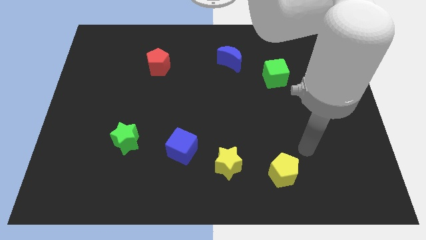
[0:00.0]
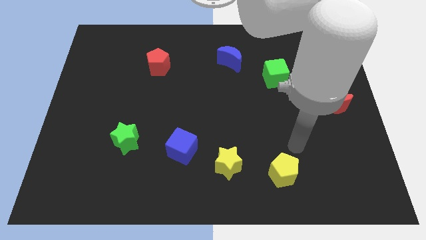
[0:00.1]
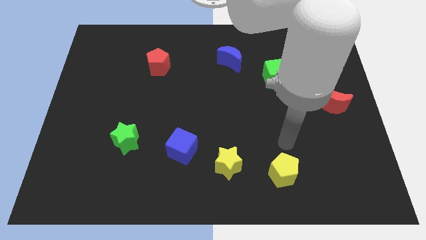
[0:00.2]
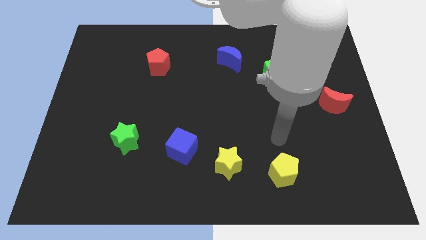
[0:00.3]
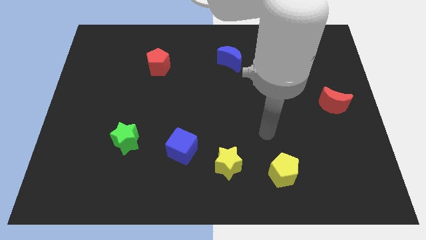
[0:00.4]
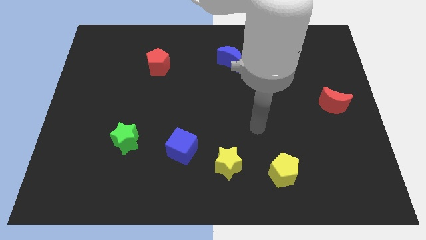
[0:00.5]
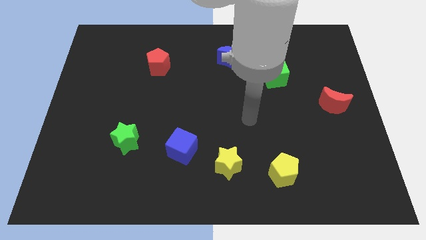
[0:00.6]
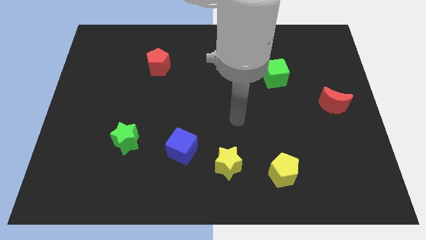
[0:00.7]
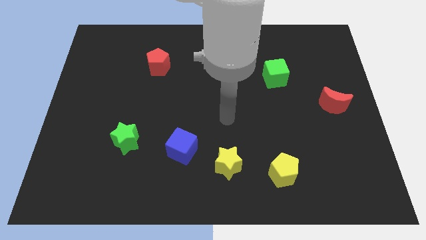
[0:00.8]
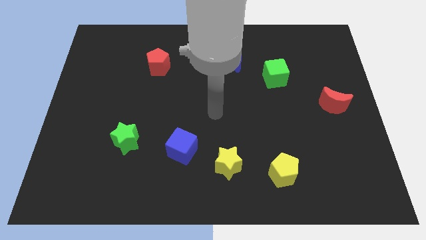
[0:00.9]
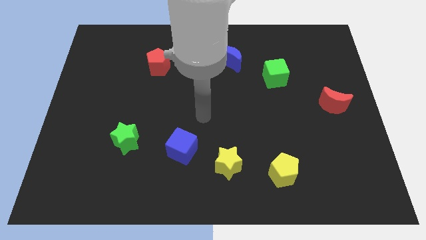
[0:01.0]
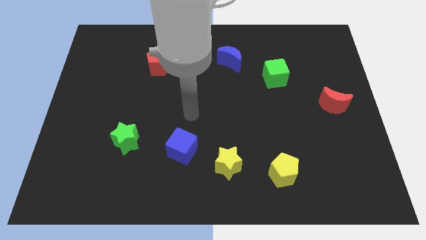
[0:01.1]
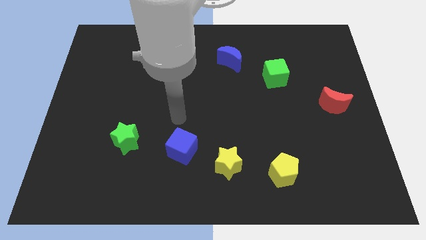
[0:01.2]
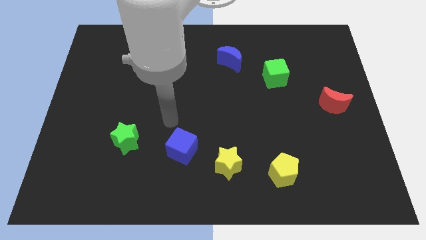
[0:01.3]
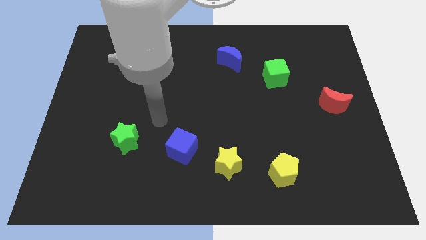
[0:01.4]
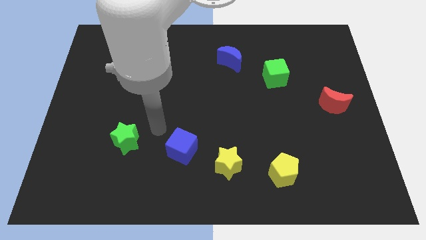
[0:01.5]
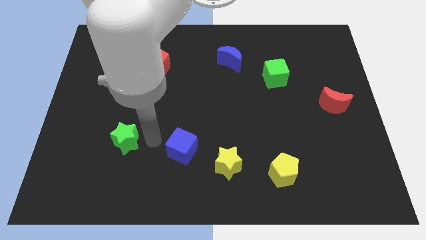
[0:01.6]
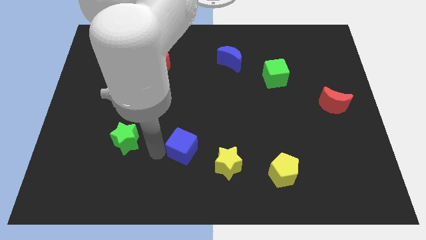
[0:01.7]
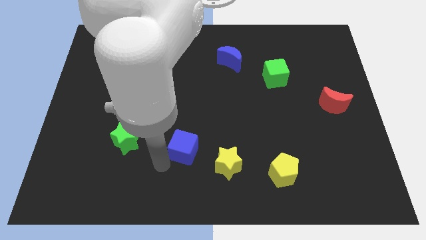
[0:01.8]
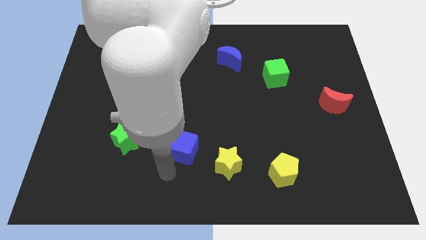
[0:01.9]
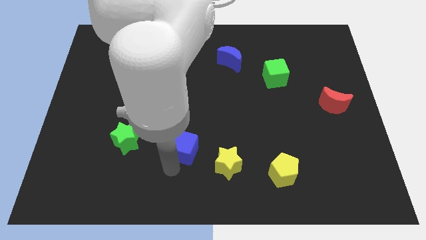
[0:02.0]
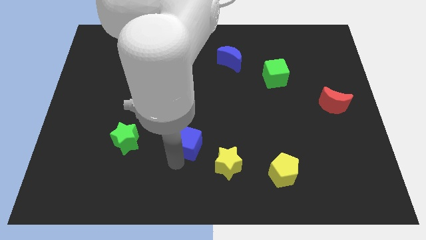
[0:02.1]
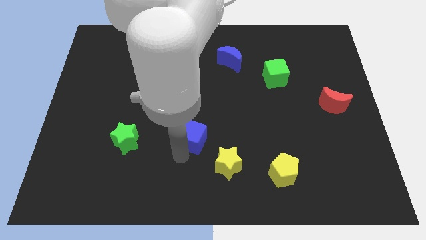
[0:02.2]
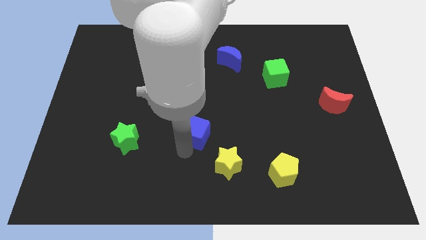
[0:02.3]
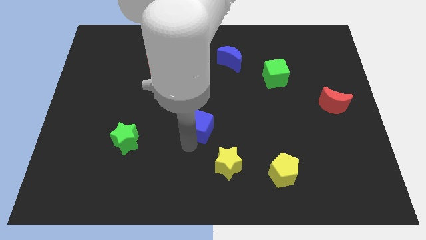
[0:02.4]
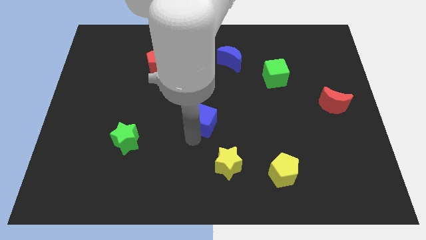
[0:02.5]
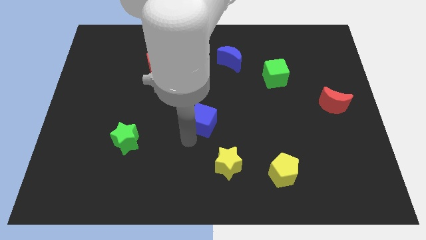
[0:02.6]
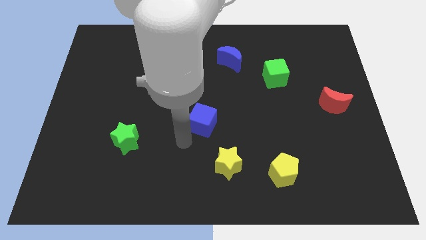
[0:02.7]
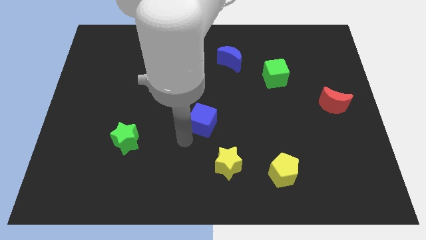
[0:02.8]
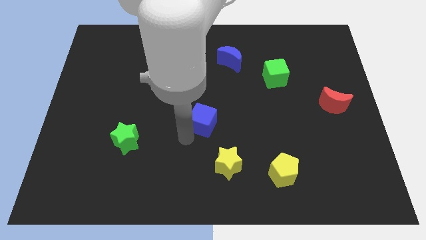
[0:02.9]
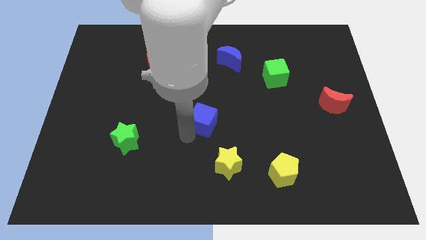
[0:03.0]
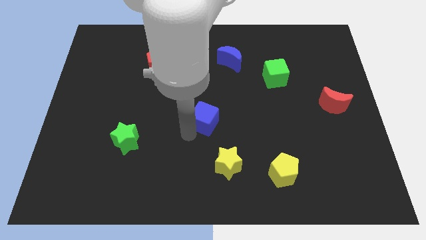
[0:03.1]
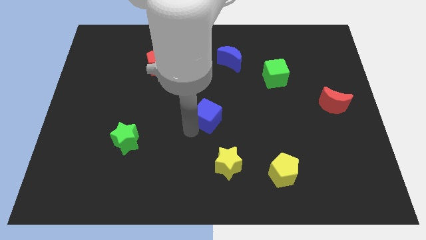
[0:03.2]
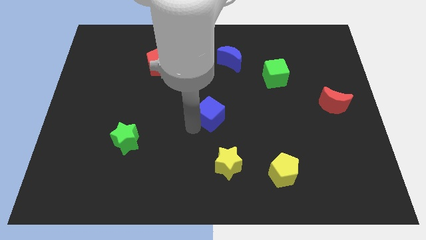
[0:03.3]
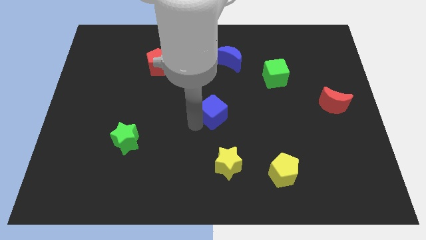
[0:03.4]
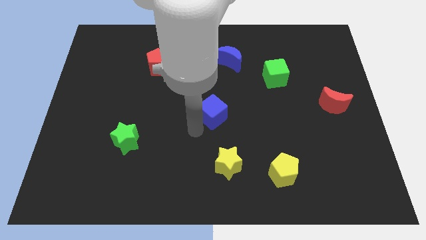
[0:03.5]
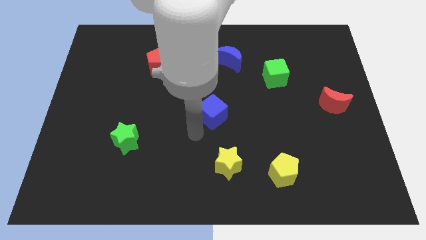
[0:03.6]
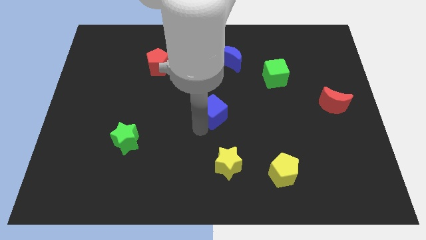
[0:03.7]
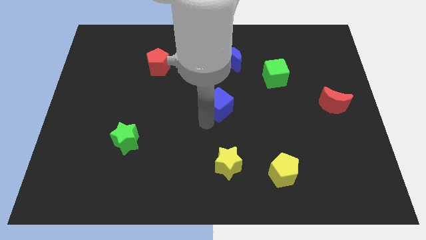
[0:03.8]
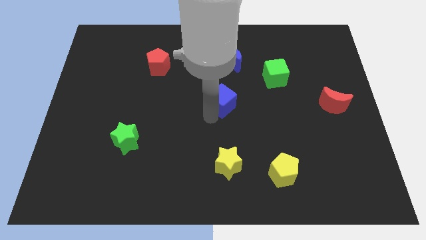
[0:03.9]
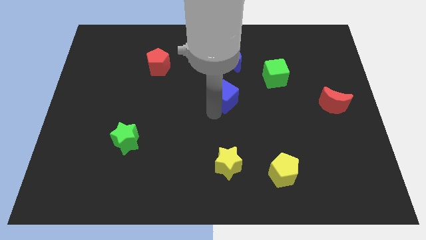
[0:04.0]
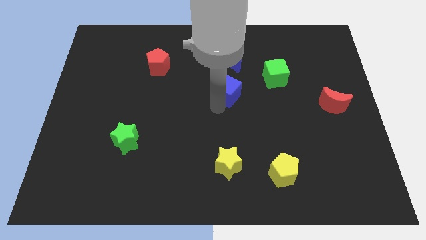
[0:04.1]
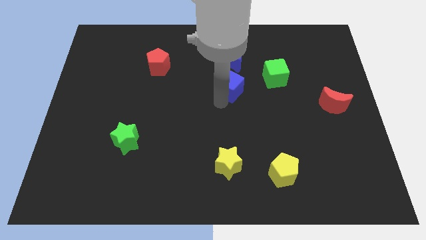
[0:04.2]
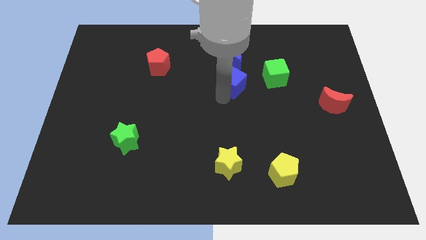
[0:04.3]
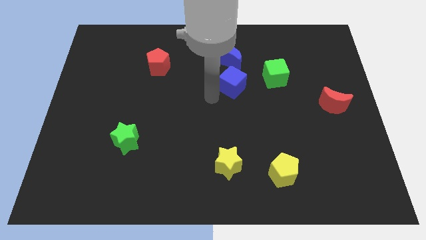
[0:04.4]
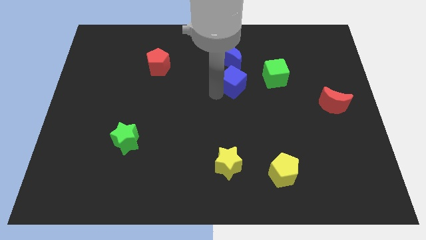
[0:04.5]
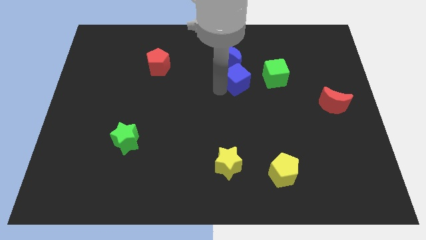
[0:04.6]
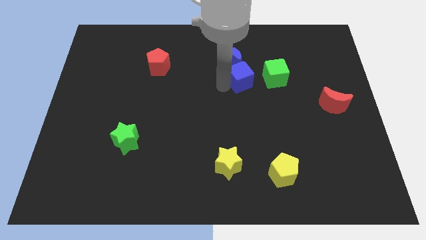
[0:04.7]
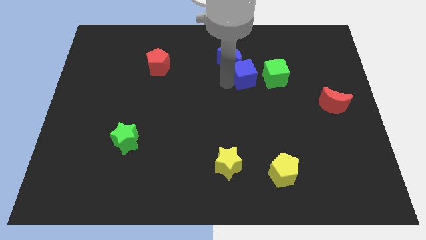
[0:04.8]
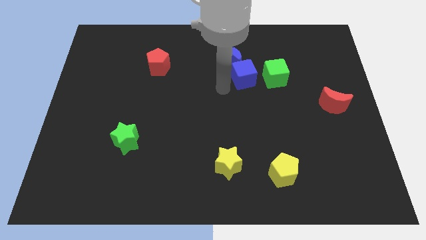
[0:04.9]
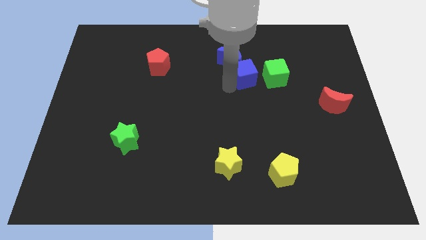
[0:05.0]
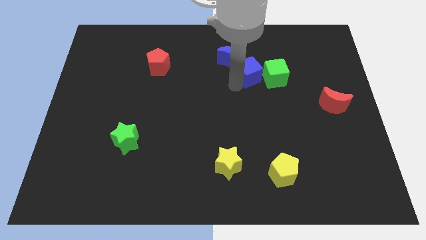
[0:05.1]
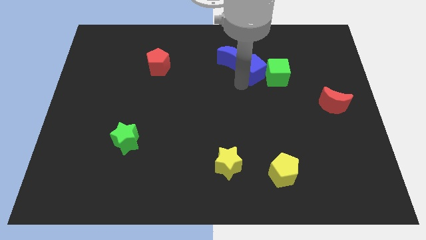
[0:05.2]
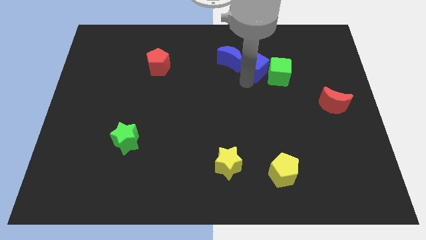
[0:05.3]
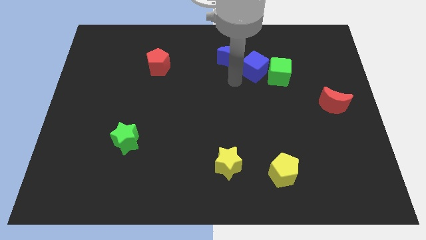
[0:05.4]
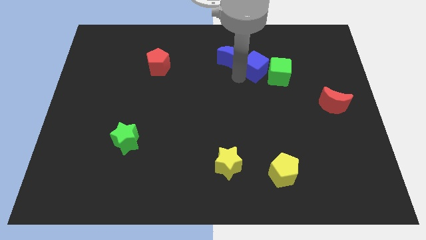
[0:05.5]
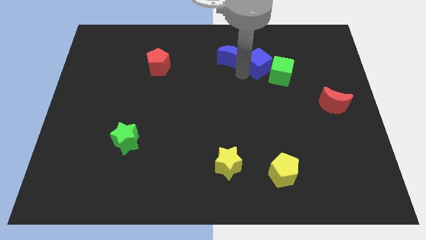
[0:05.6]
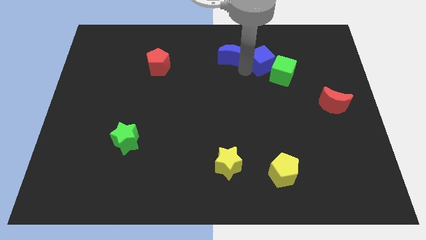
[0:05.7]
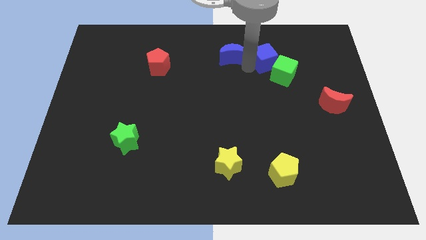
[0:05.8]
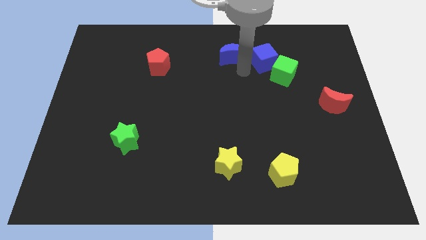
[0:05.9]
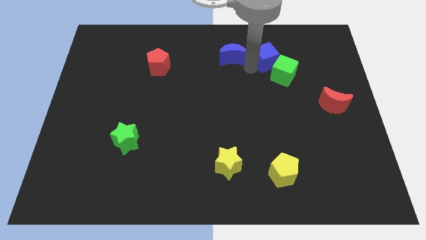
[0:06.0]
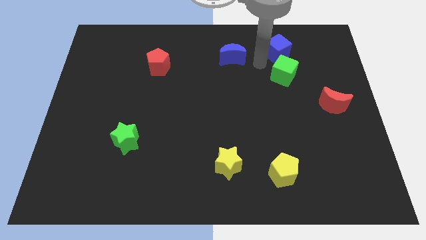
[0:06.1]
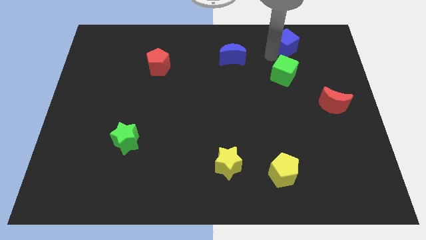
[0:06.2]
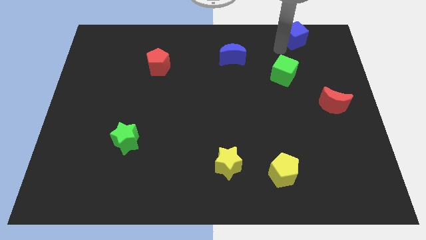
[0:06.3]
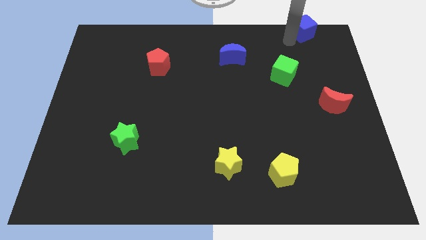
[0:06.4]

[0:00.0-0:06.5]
move the blue cube to the top right of the board
